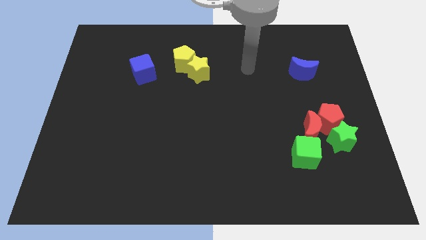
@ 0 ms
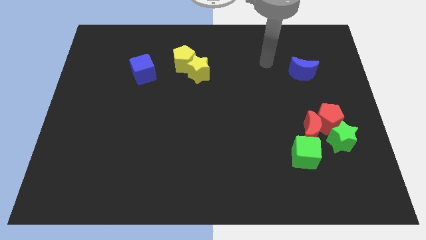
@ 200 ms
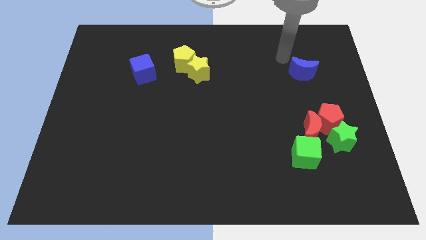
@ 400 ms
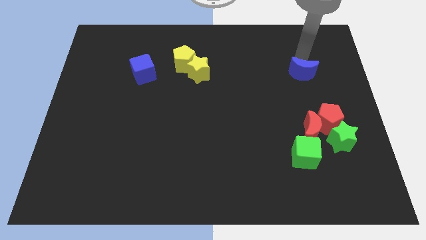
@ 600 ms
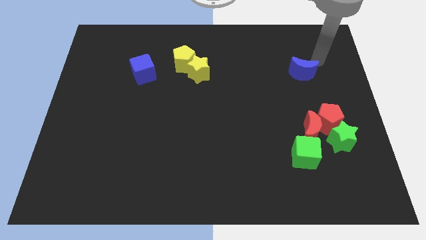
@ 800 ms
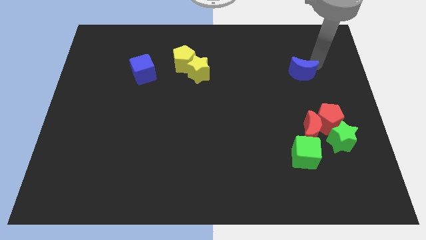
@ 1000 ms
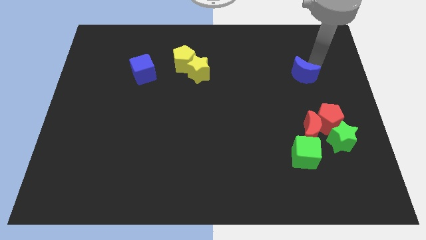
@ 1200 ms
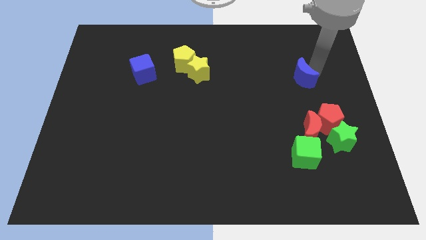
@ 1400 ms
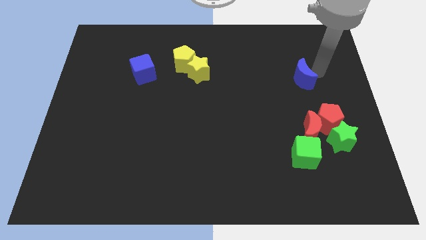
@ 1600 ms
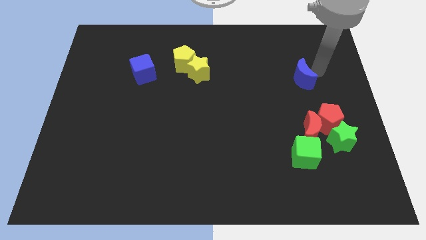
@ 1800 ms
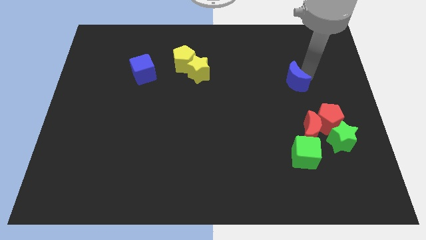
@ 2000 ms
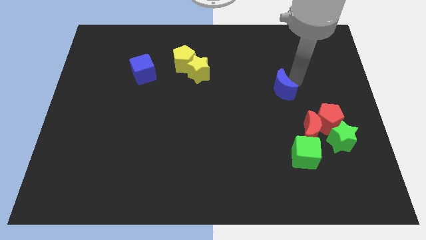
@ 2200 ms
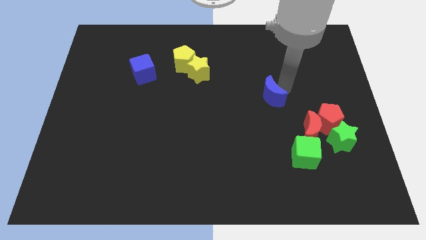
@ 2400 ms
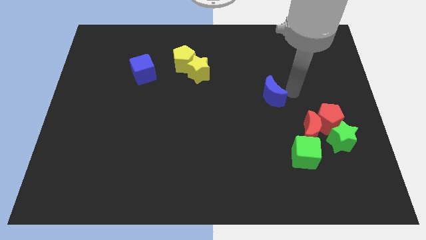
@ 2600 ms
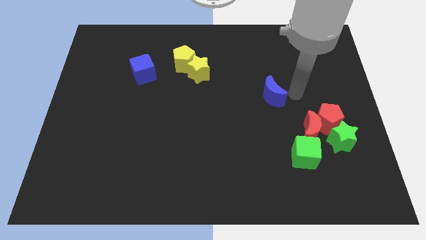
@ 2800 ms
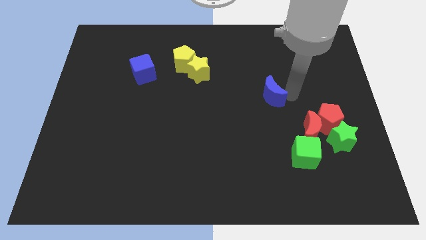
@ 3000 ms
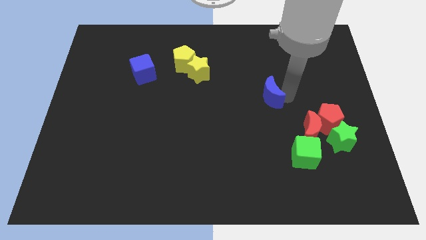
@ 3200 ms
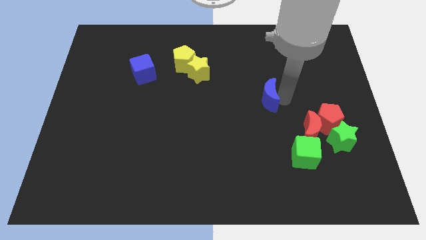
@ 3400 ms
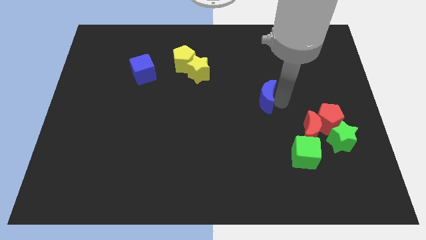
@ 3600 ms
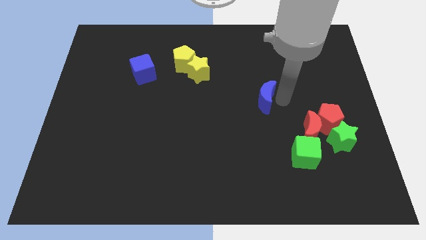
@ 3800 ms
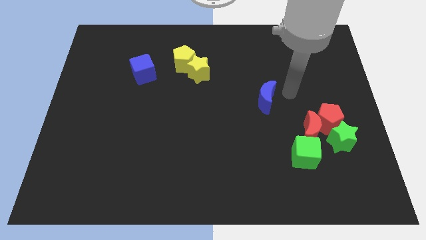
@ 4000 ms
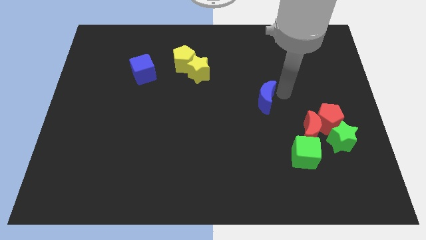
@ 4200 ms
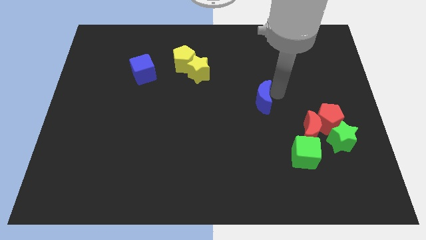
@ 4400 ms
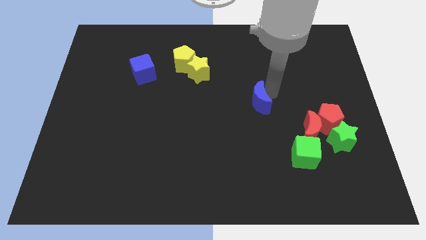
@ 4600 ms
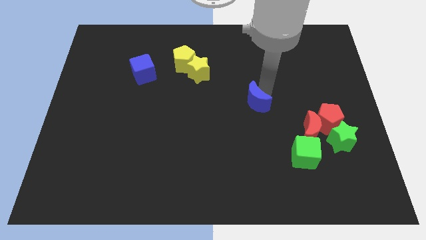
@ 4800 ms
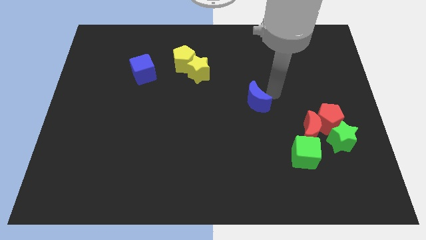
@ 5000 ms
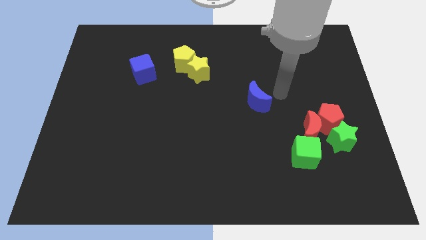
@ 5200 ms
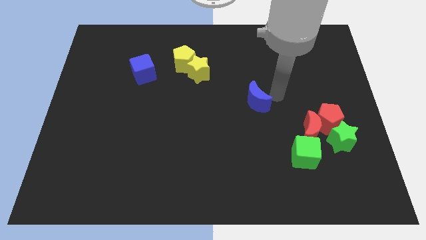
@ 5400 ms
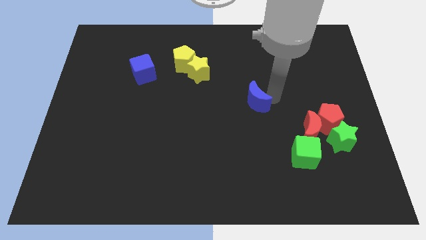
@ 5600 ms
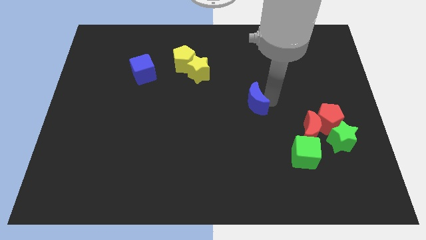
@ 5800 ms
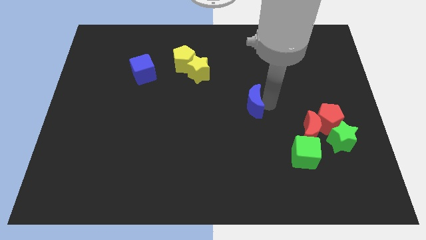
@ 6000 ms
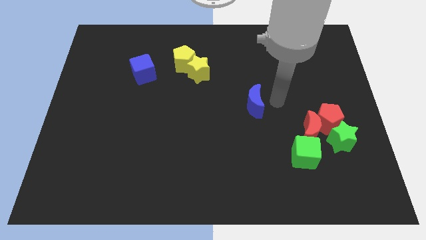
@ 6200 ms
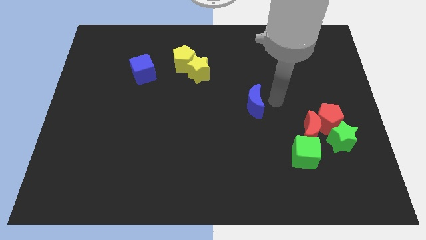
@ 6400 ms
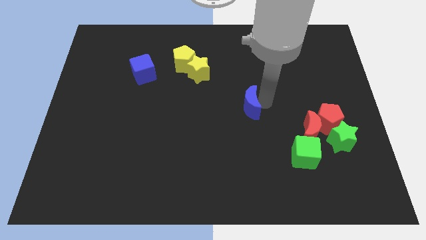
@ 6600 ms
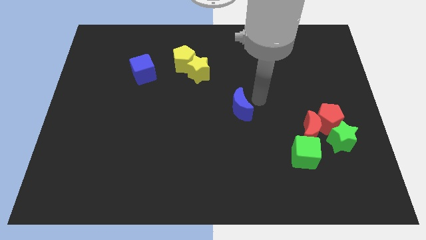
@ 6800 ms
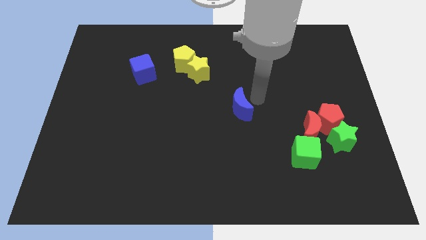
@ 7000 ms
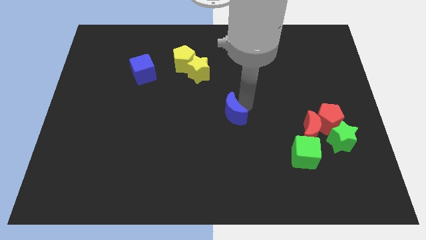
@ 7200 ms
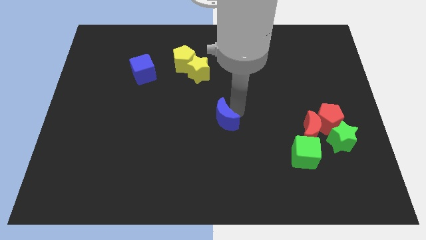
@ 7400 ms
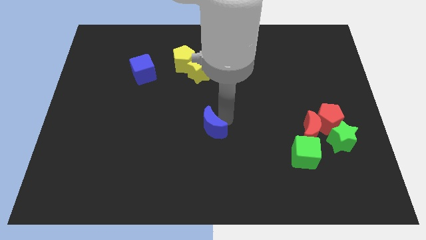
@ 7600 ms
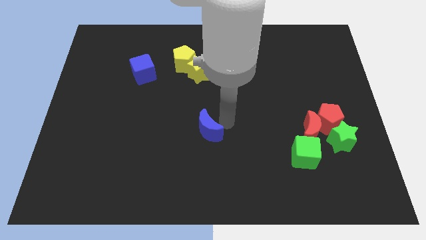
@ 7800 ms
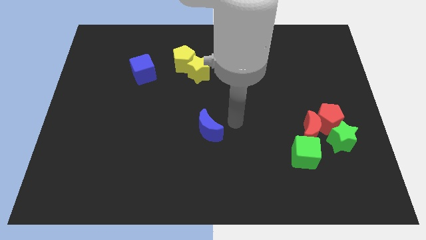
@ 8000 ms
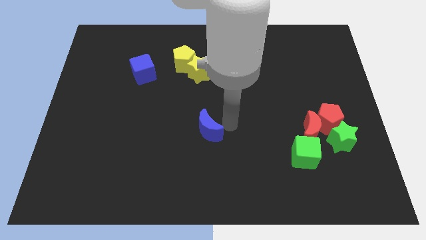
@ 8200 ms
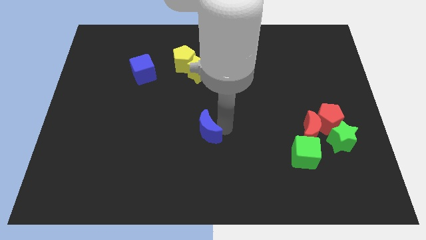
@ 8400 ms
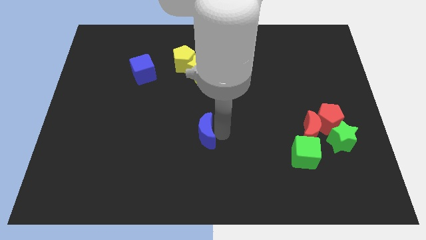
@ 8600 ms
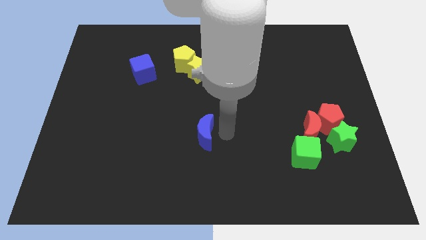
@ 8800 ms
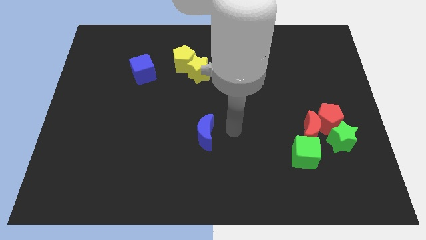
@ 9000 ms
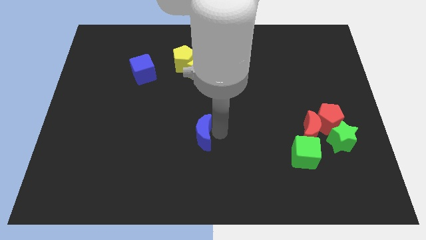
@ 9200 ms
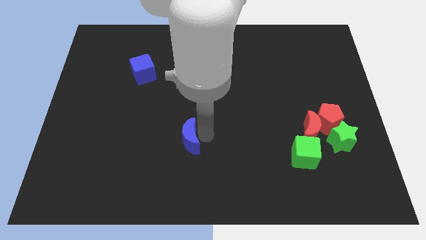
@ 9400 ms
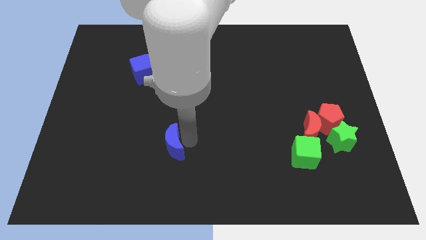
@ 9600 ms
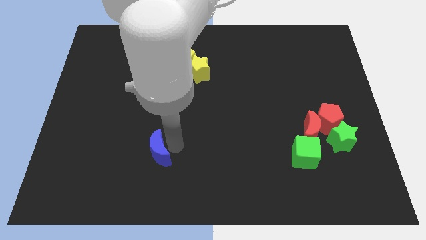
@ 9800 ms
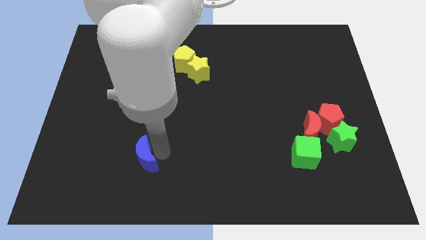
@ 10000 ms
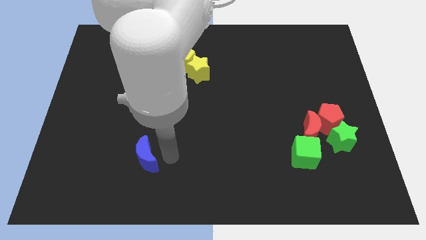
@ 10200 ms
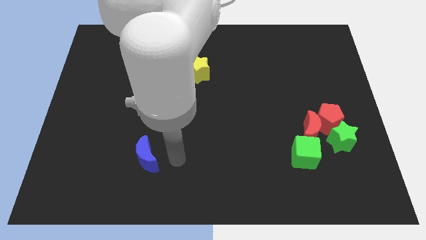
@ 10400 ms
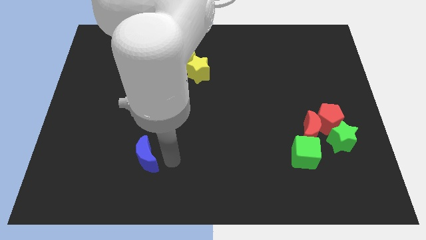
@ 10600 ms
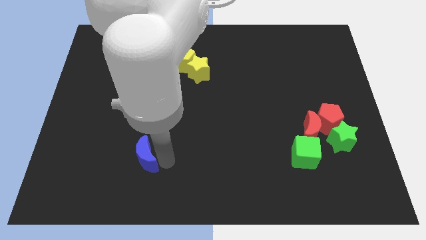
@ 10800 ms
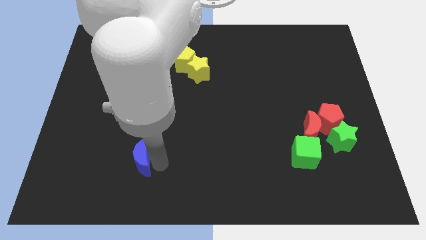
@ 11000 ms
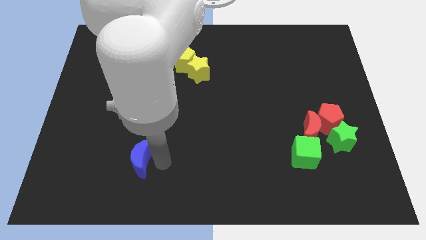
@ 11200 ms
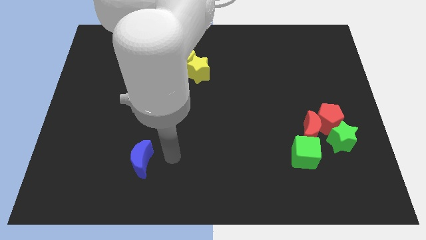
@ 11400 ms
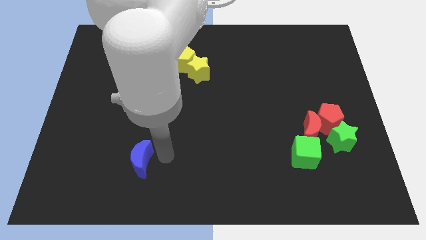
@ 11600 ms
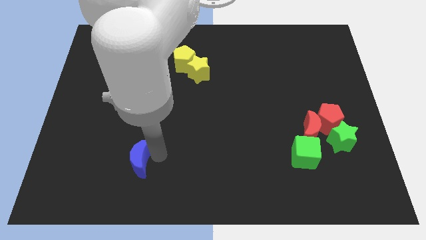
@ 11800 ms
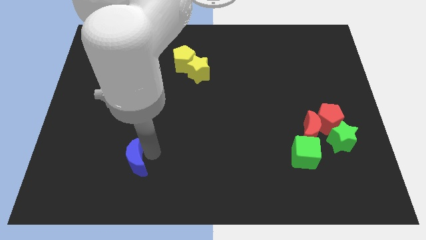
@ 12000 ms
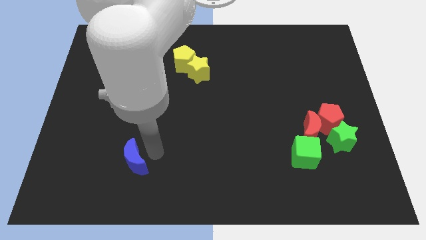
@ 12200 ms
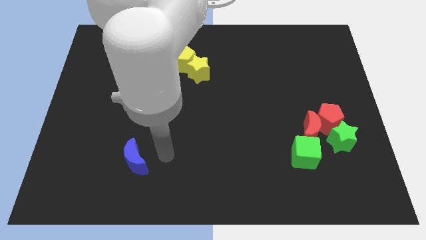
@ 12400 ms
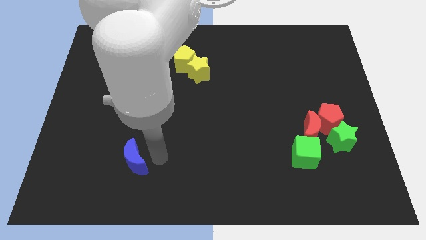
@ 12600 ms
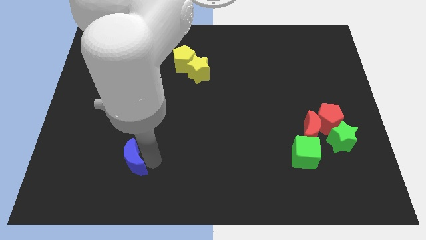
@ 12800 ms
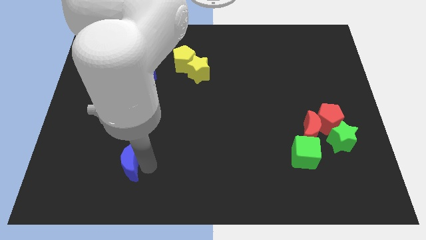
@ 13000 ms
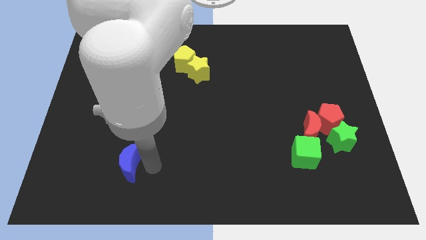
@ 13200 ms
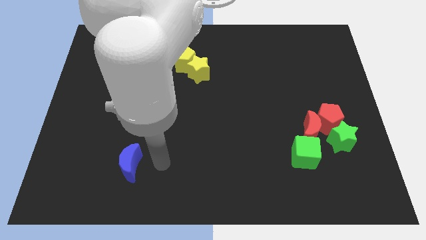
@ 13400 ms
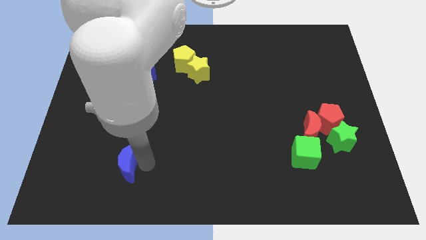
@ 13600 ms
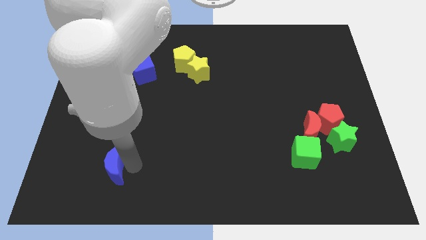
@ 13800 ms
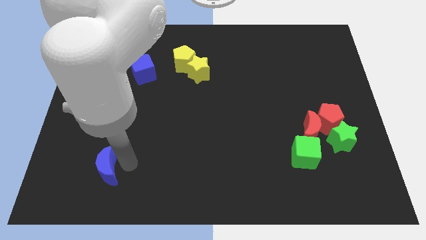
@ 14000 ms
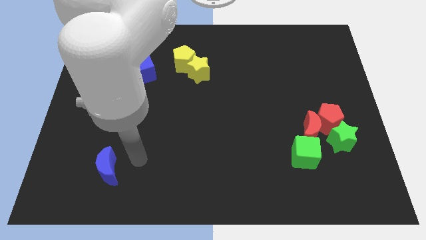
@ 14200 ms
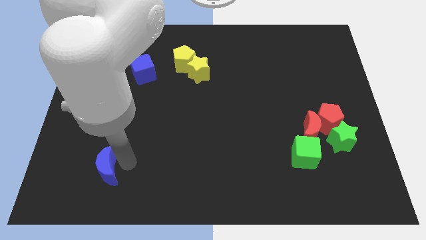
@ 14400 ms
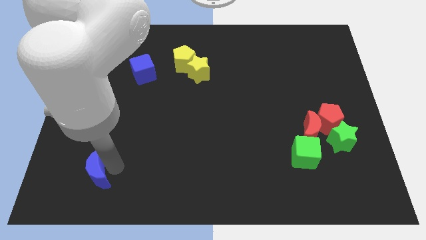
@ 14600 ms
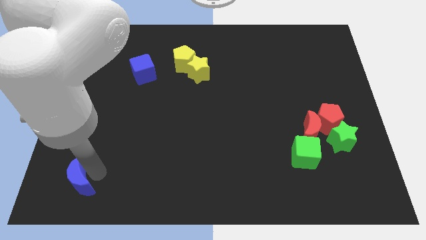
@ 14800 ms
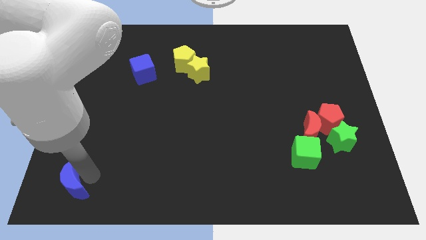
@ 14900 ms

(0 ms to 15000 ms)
move the blue moon to the lower left corner
